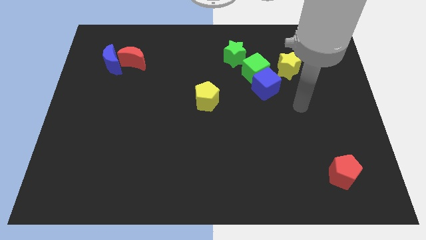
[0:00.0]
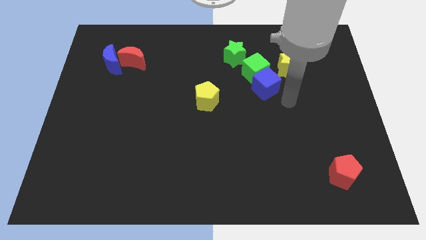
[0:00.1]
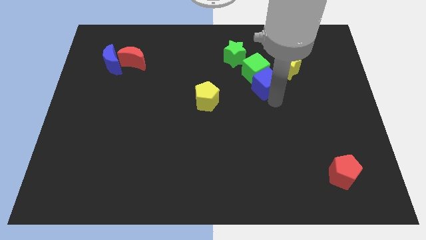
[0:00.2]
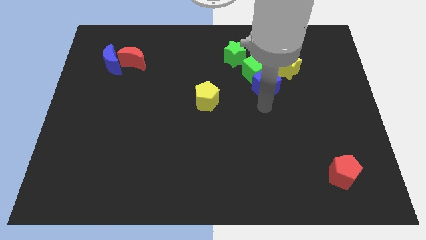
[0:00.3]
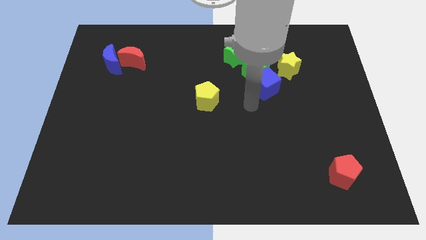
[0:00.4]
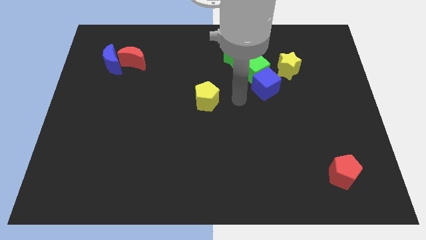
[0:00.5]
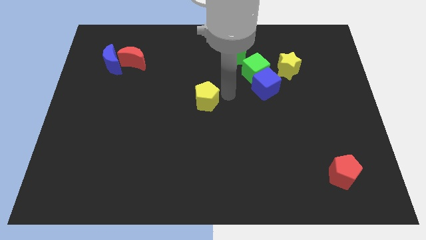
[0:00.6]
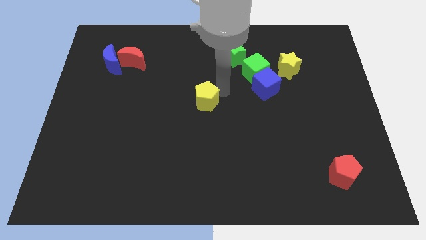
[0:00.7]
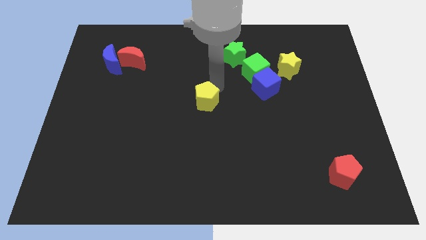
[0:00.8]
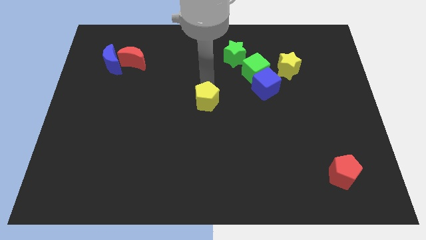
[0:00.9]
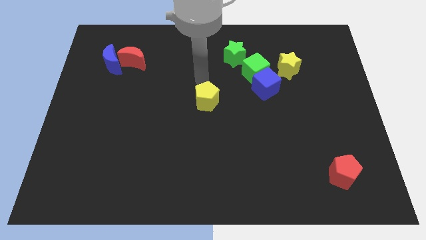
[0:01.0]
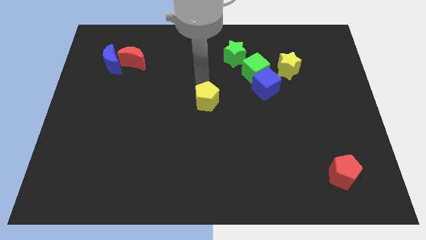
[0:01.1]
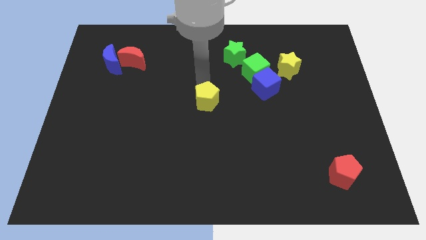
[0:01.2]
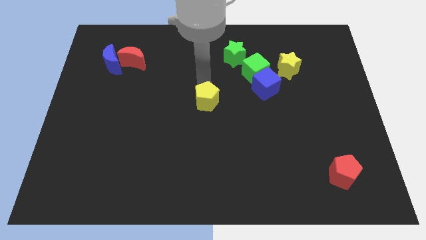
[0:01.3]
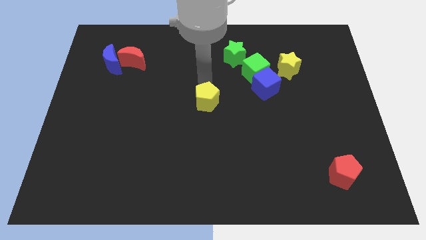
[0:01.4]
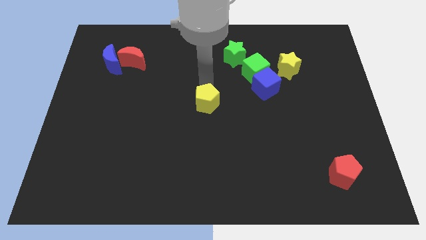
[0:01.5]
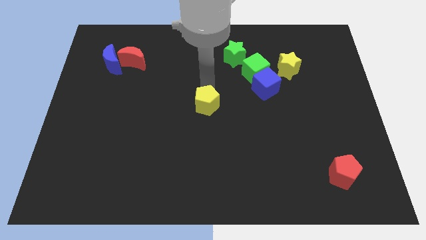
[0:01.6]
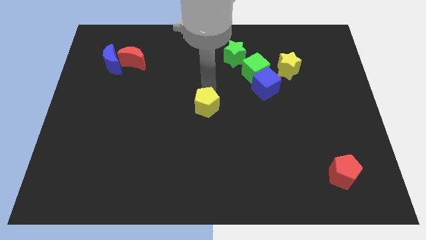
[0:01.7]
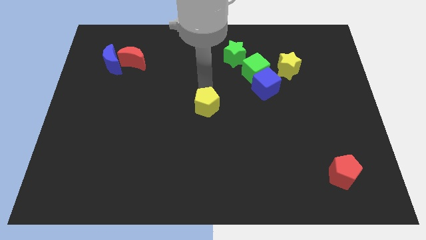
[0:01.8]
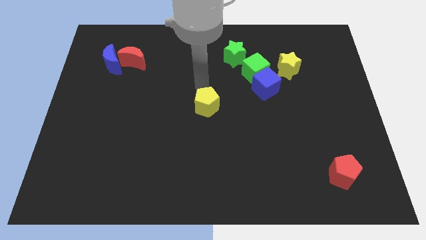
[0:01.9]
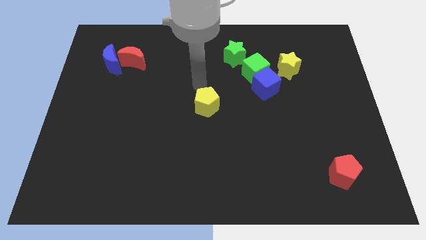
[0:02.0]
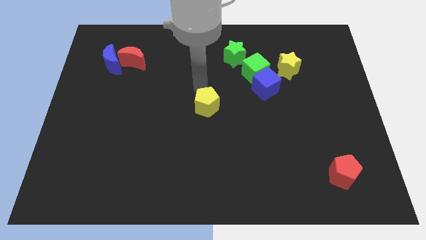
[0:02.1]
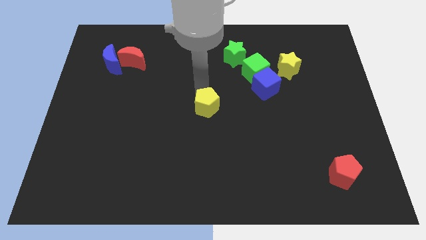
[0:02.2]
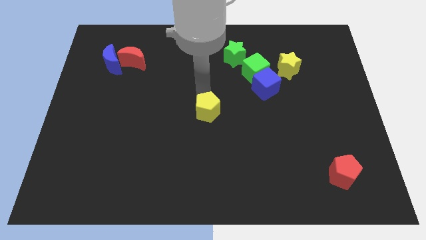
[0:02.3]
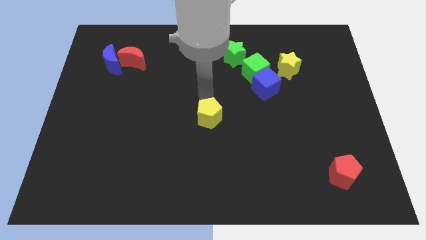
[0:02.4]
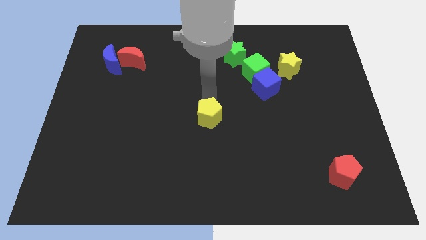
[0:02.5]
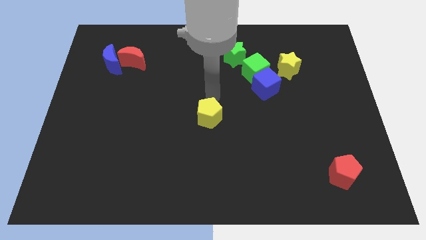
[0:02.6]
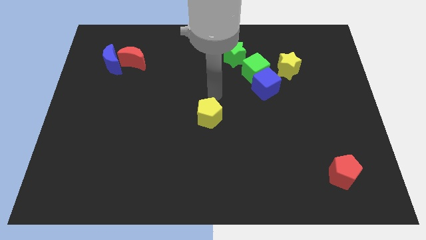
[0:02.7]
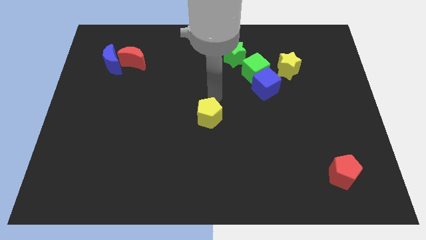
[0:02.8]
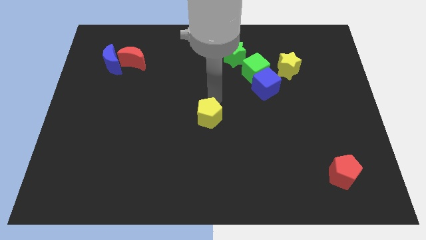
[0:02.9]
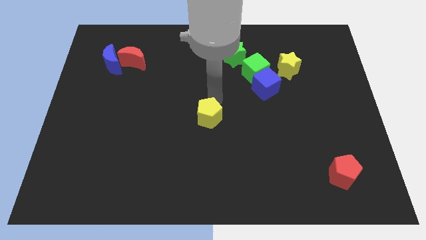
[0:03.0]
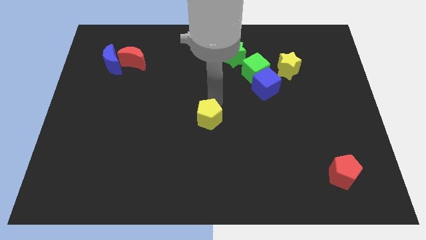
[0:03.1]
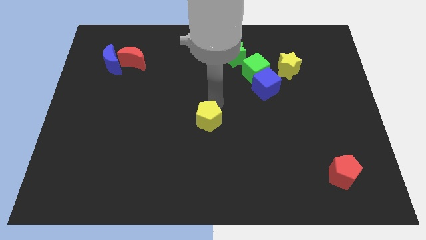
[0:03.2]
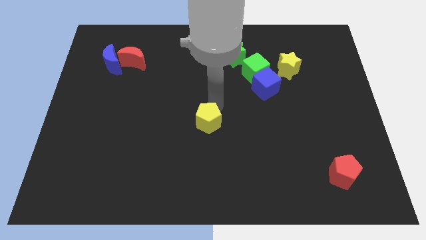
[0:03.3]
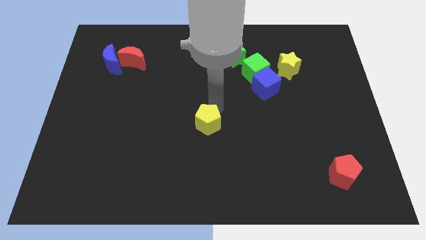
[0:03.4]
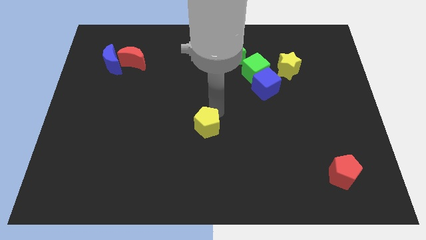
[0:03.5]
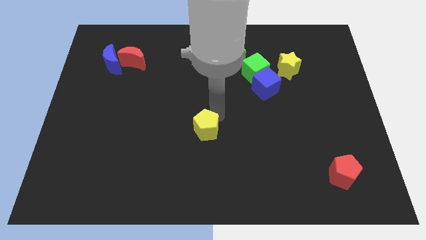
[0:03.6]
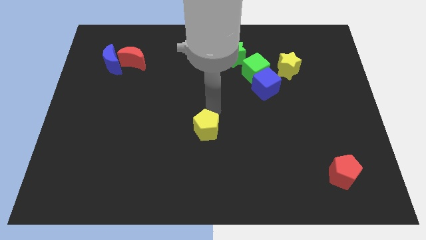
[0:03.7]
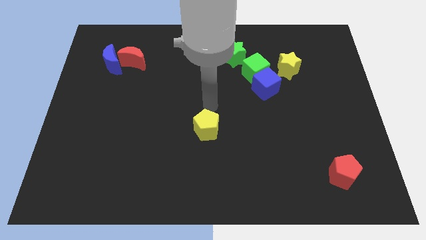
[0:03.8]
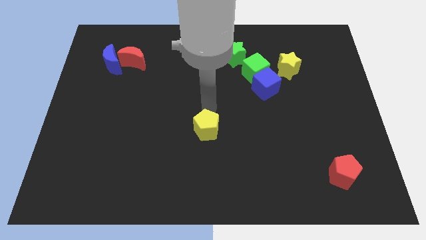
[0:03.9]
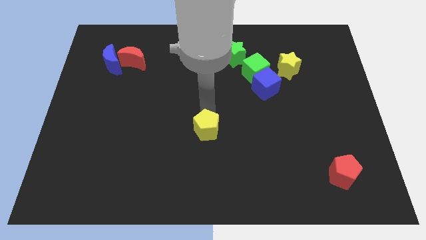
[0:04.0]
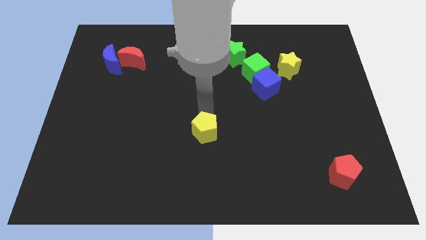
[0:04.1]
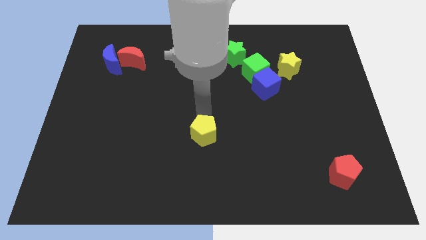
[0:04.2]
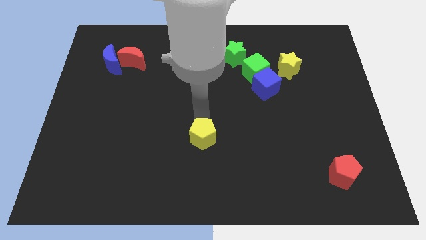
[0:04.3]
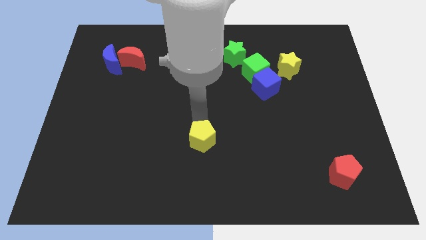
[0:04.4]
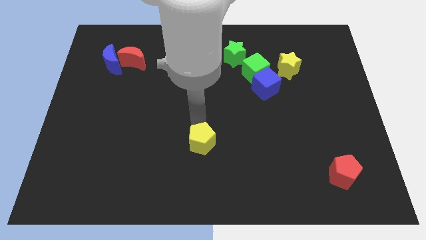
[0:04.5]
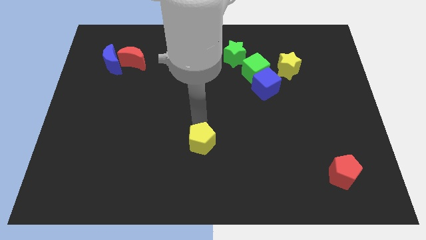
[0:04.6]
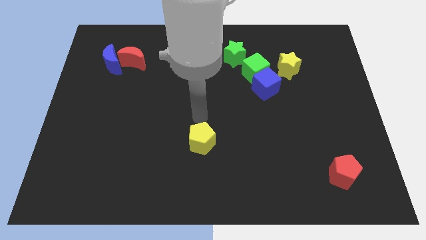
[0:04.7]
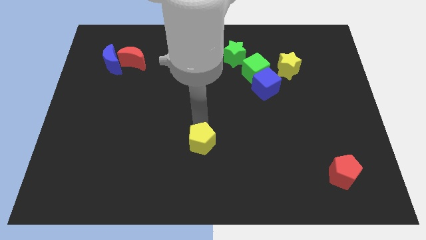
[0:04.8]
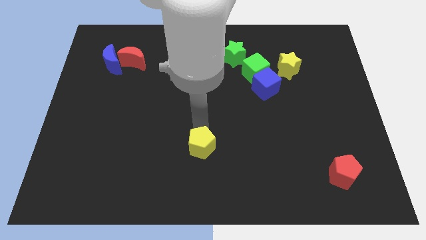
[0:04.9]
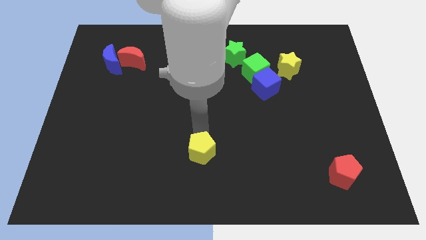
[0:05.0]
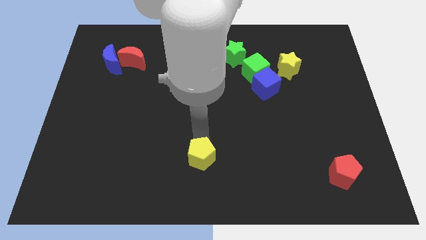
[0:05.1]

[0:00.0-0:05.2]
put the yellow pentagon to the bottom

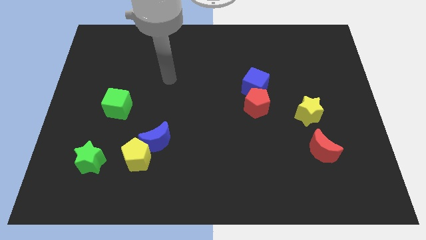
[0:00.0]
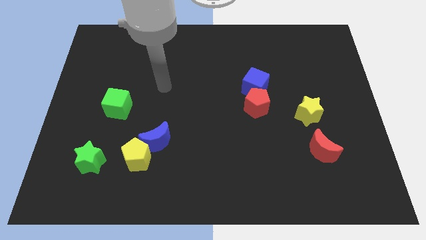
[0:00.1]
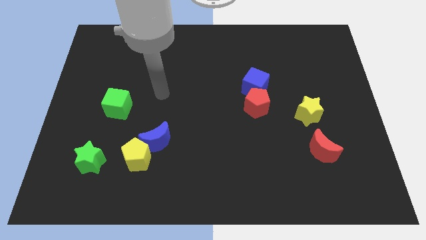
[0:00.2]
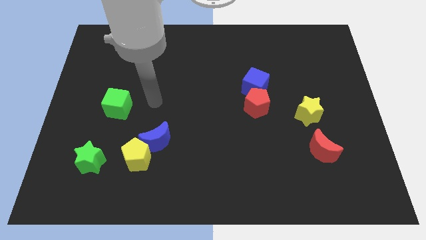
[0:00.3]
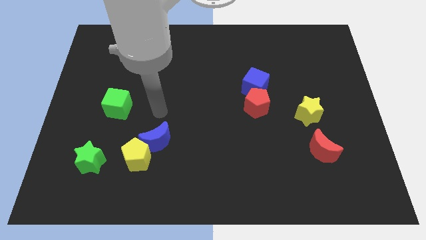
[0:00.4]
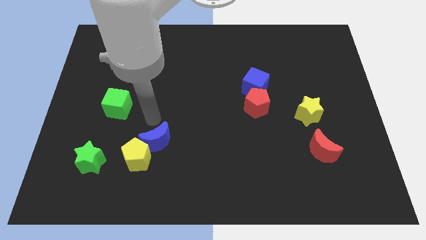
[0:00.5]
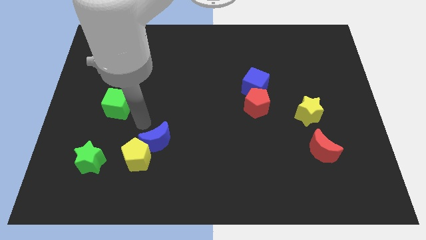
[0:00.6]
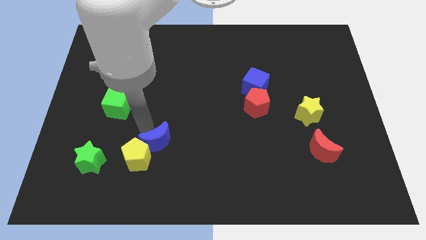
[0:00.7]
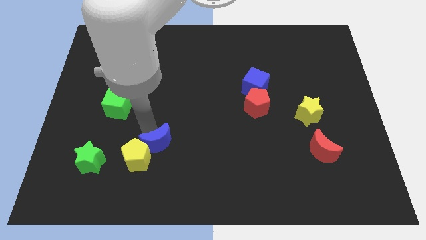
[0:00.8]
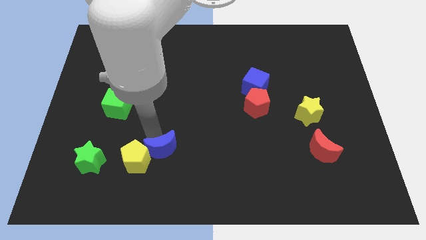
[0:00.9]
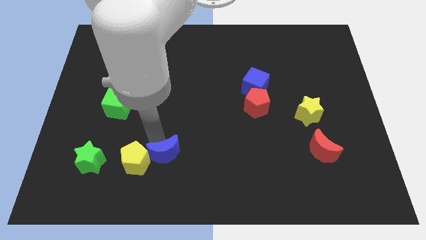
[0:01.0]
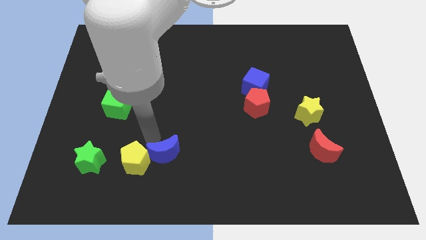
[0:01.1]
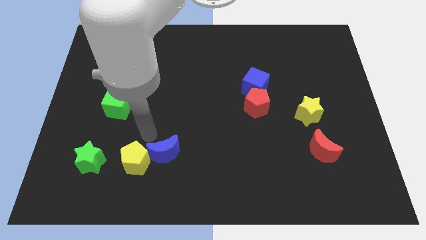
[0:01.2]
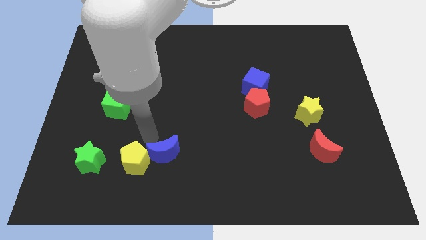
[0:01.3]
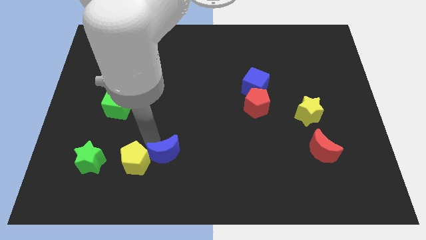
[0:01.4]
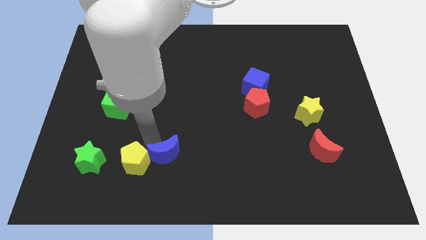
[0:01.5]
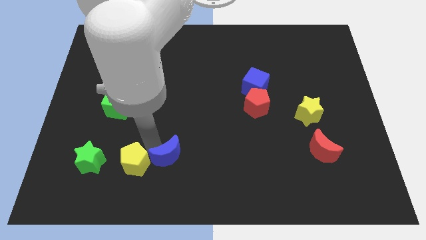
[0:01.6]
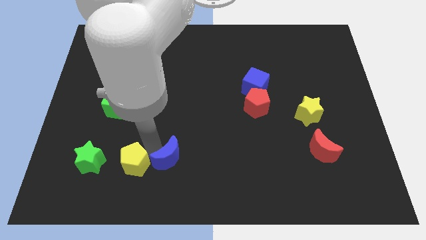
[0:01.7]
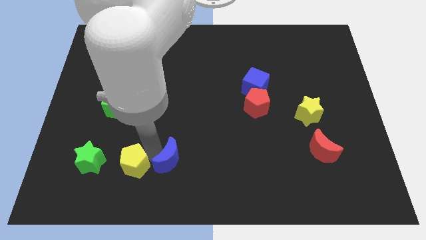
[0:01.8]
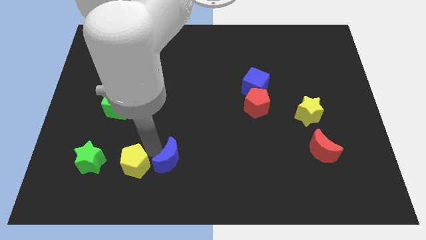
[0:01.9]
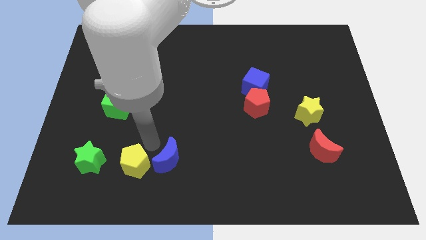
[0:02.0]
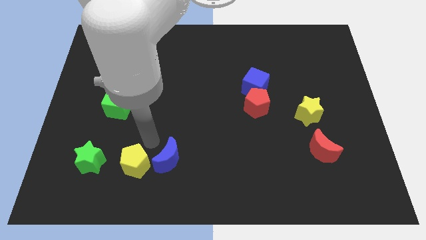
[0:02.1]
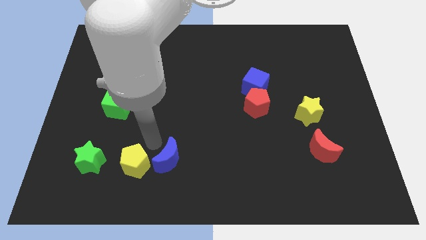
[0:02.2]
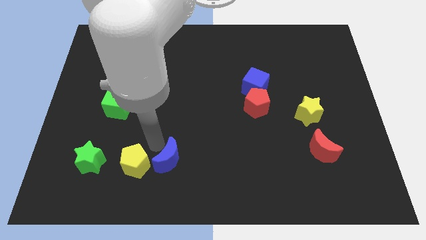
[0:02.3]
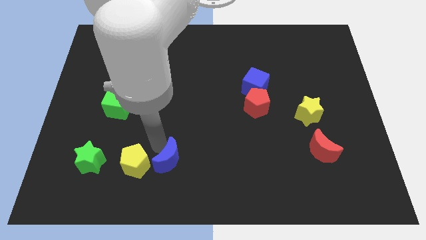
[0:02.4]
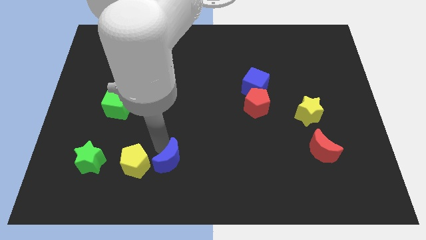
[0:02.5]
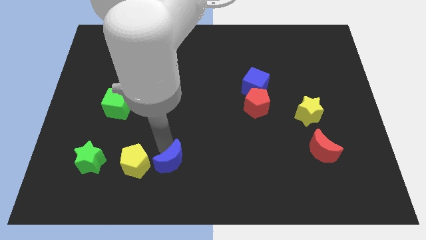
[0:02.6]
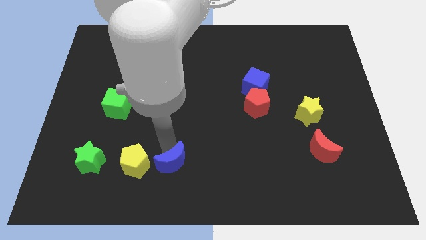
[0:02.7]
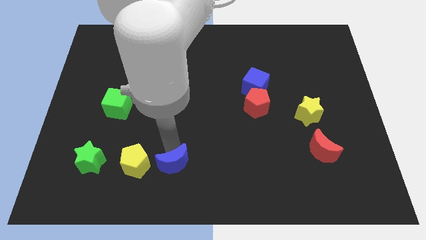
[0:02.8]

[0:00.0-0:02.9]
move the blue moon to the bottom
